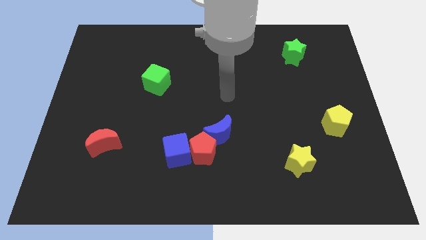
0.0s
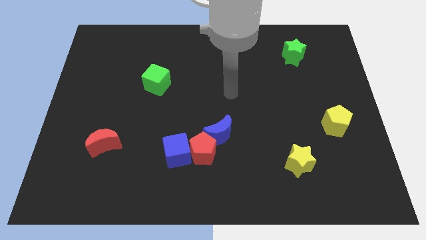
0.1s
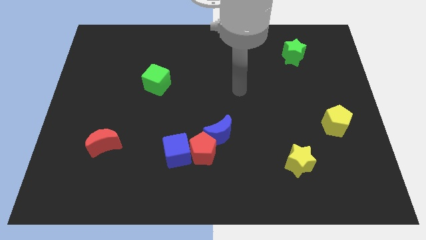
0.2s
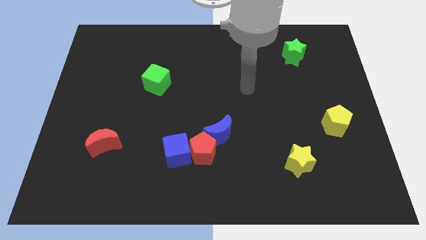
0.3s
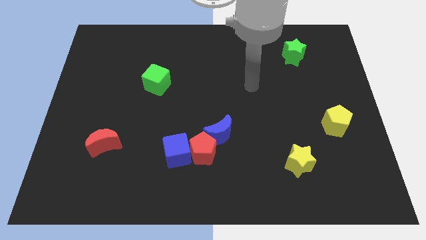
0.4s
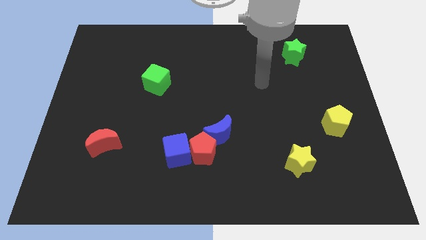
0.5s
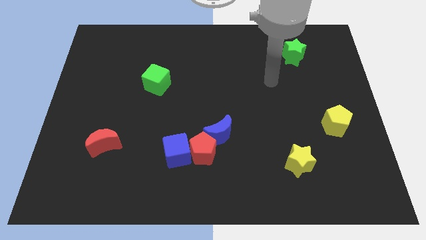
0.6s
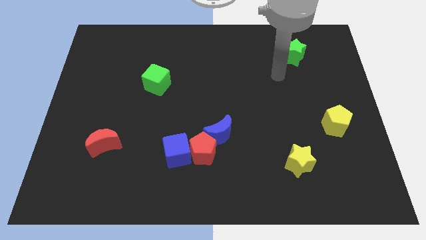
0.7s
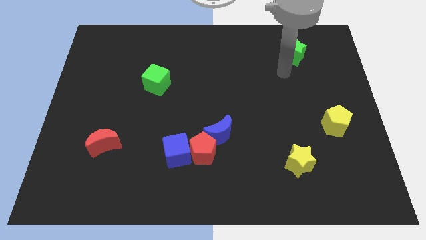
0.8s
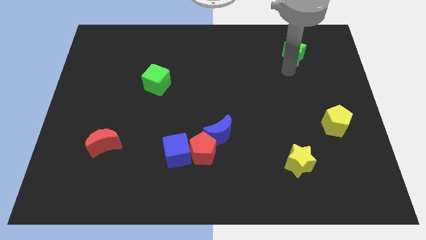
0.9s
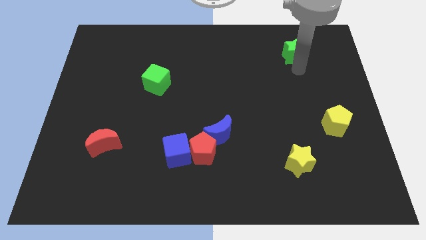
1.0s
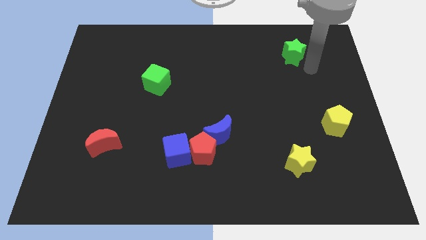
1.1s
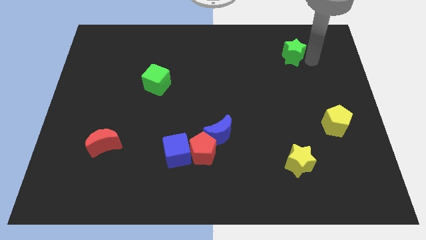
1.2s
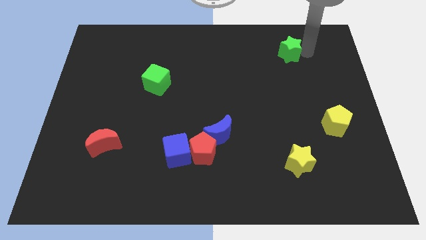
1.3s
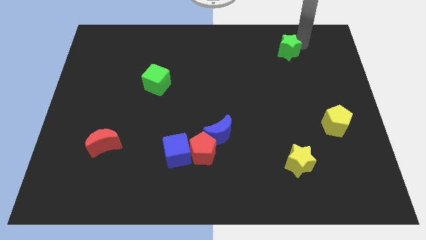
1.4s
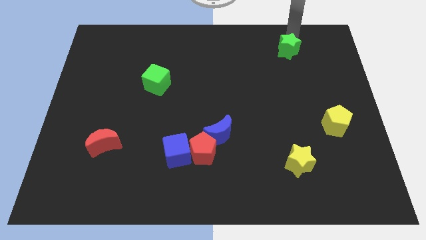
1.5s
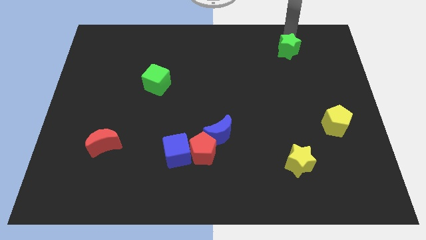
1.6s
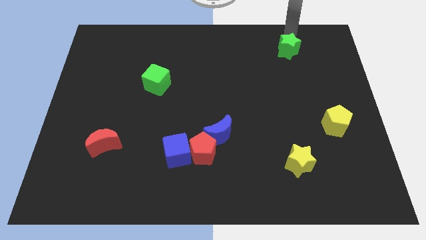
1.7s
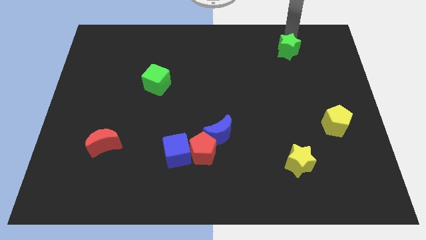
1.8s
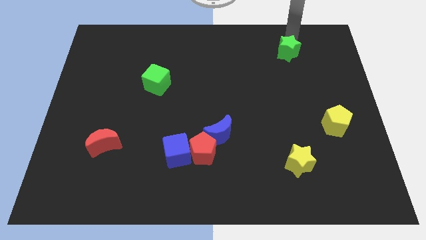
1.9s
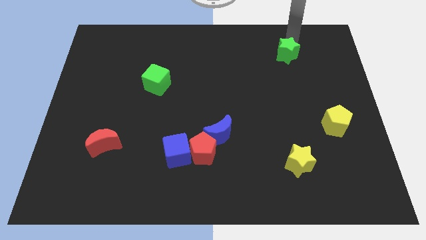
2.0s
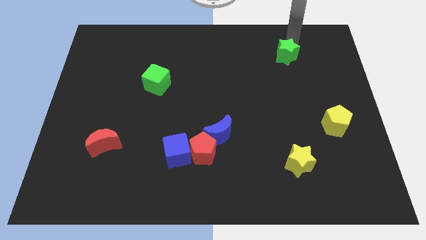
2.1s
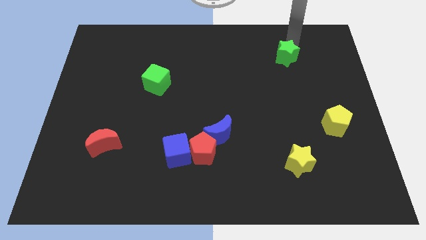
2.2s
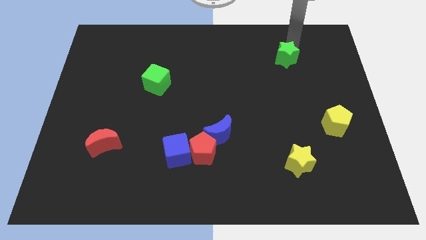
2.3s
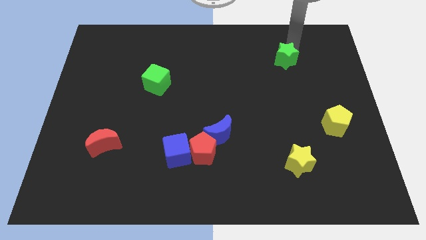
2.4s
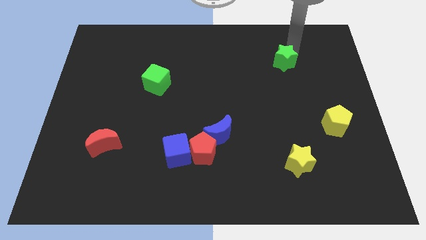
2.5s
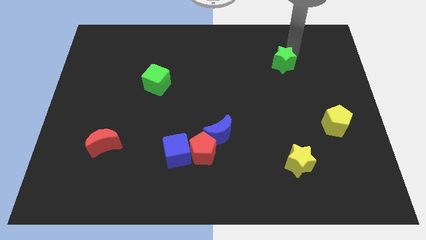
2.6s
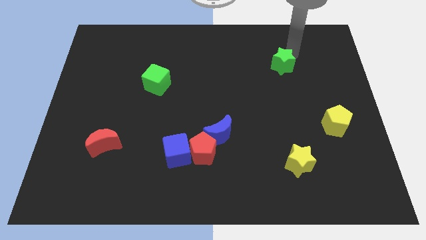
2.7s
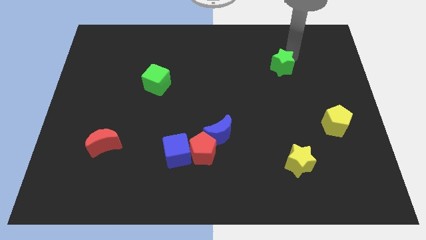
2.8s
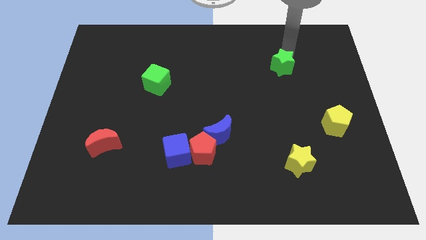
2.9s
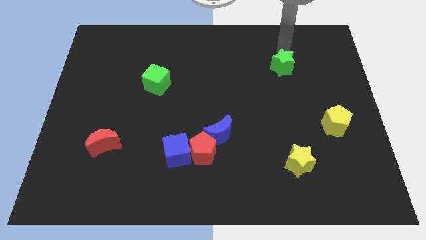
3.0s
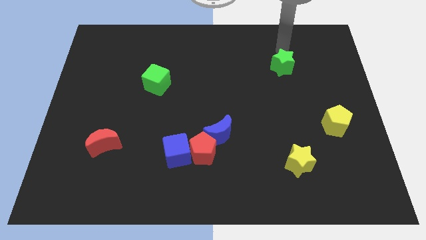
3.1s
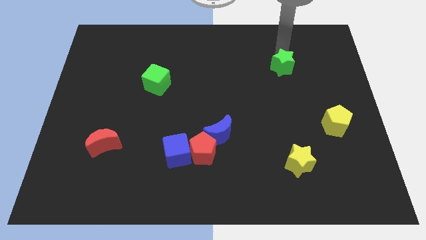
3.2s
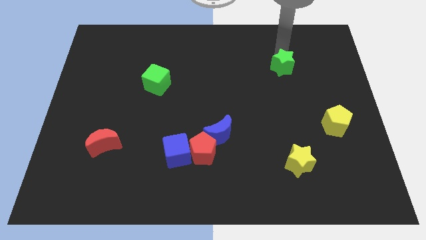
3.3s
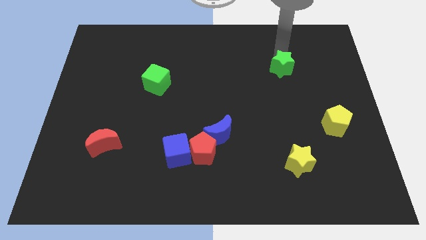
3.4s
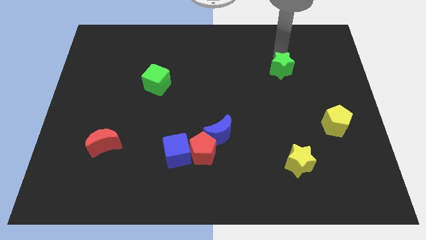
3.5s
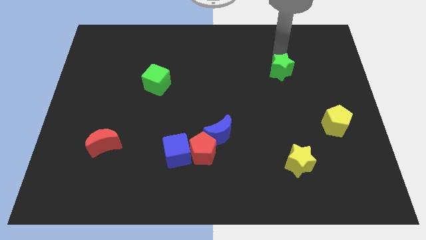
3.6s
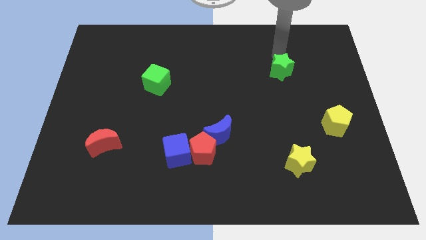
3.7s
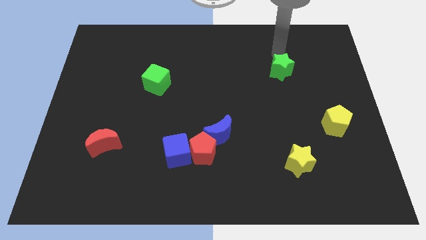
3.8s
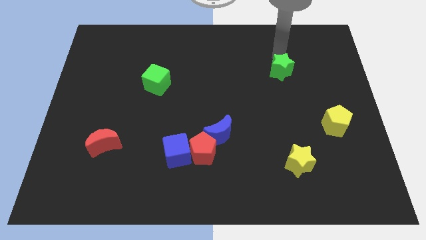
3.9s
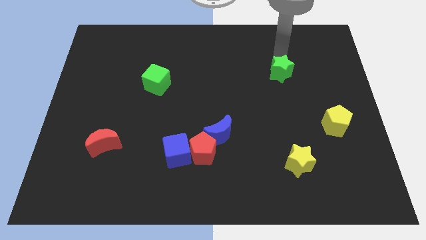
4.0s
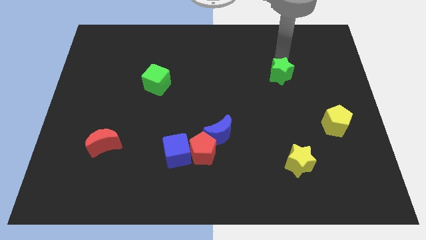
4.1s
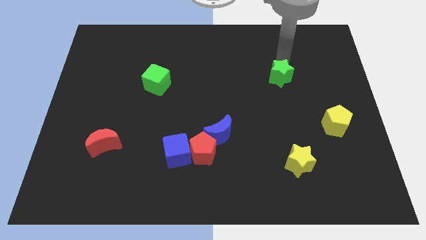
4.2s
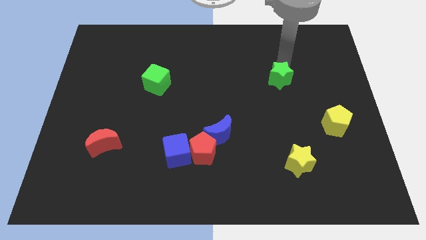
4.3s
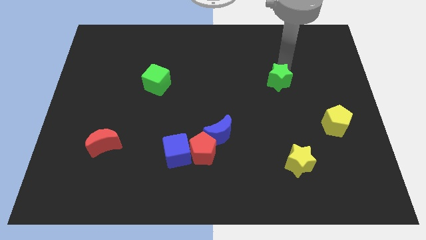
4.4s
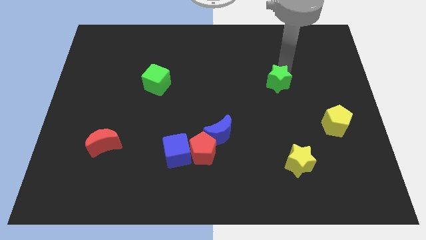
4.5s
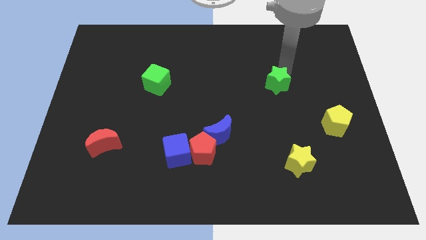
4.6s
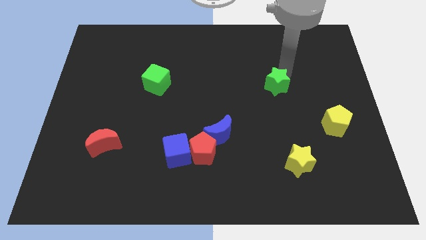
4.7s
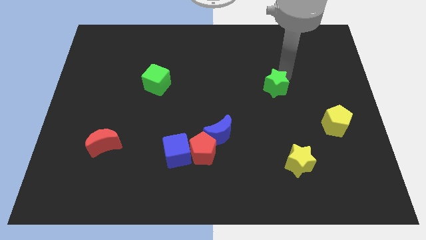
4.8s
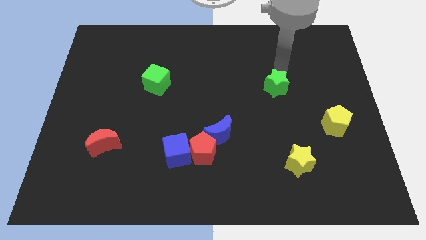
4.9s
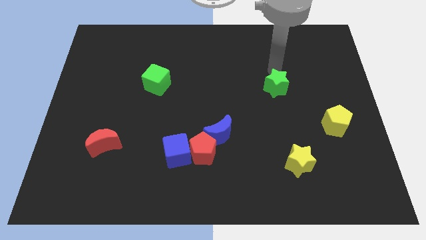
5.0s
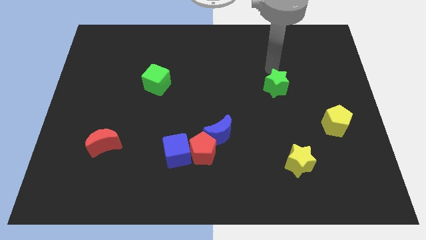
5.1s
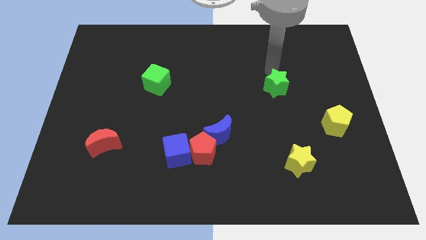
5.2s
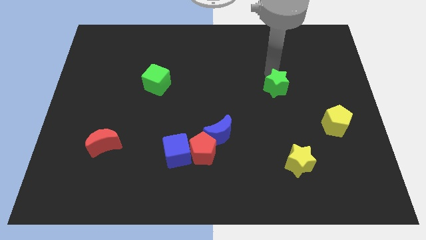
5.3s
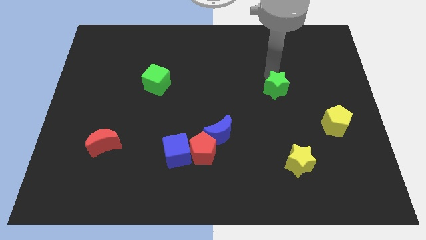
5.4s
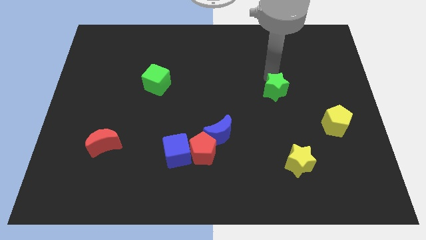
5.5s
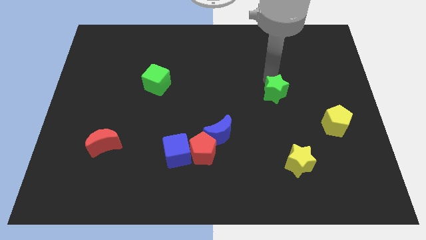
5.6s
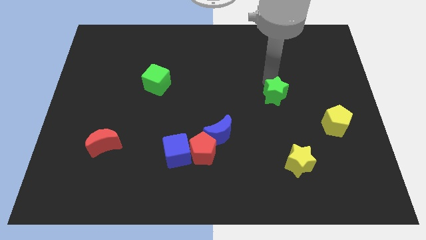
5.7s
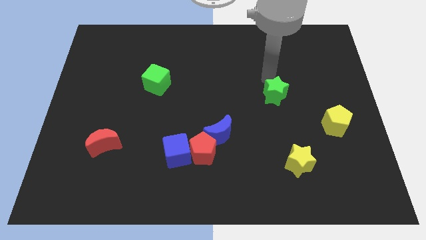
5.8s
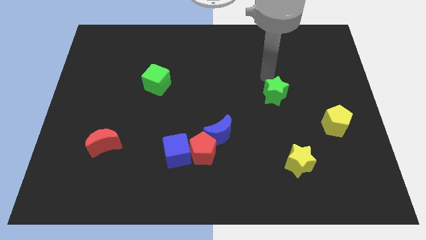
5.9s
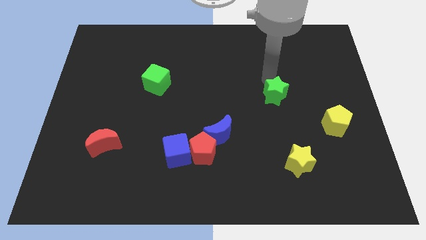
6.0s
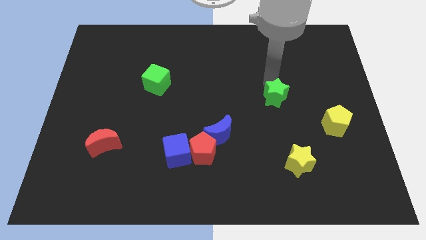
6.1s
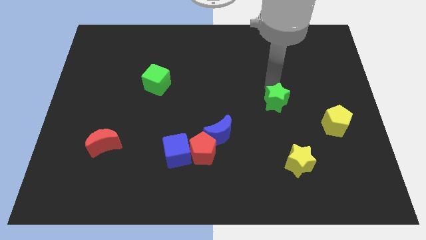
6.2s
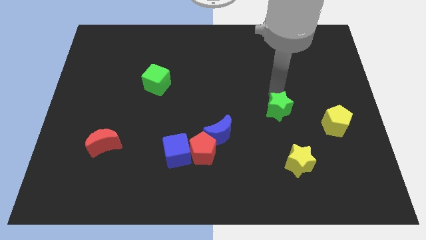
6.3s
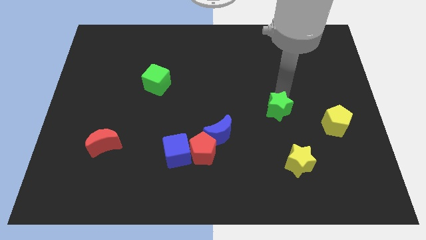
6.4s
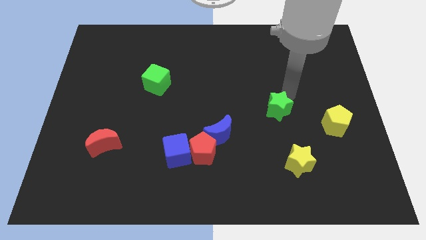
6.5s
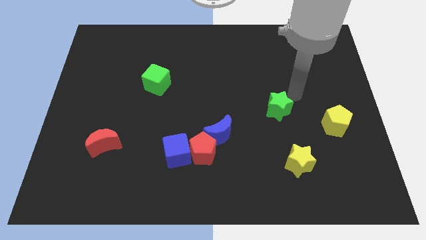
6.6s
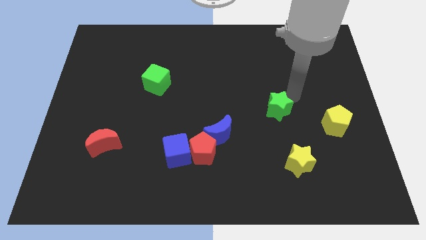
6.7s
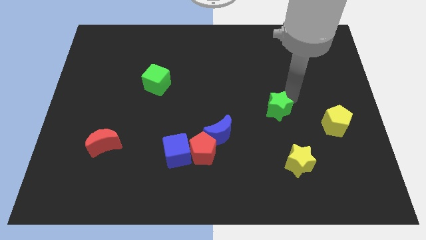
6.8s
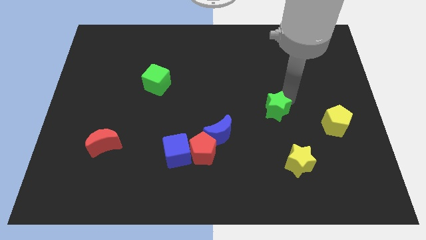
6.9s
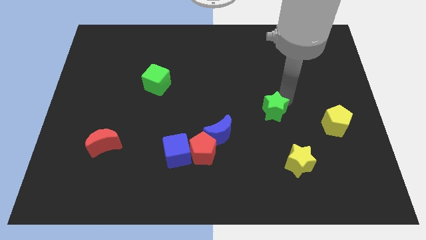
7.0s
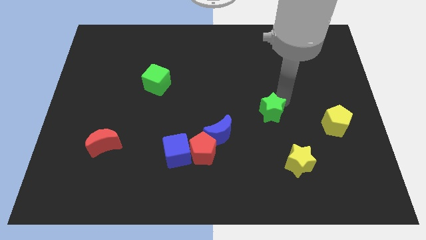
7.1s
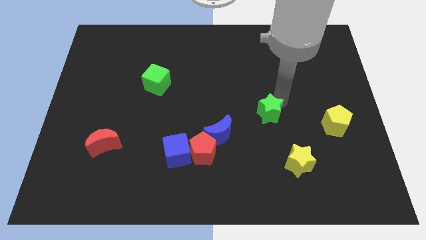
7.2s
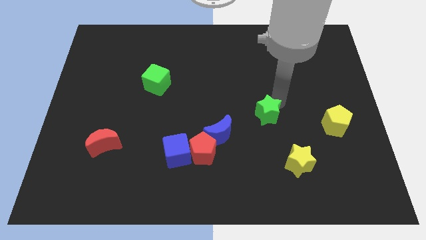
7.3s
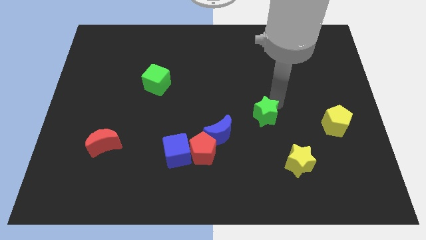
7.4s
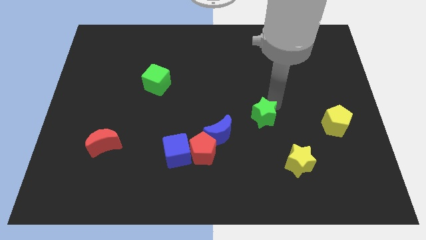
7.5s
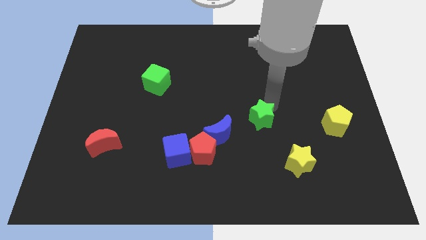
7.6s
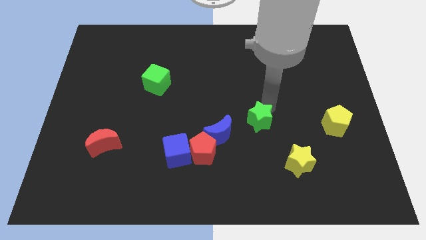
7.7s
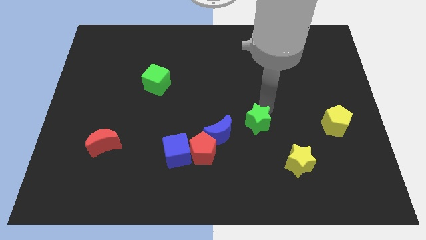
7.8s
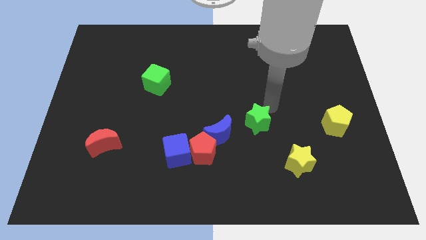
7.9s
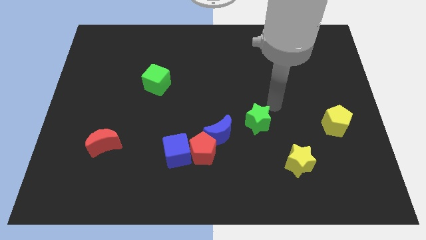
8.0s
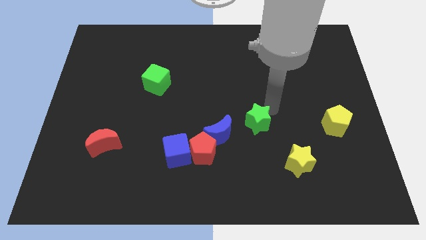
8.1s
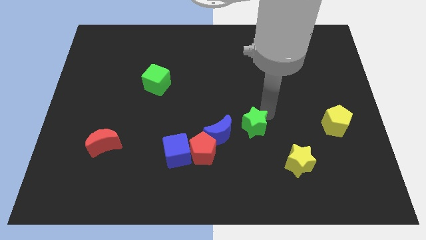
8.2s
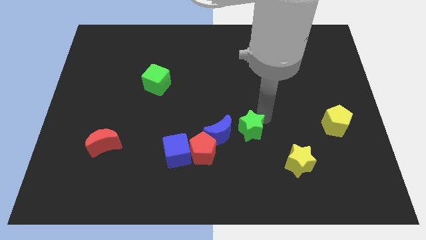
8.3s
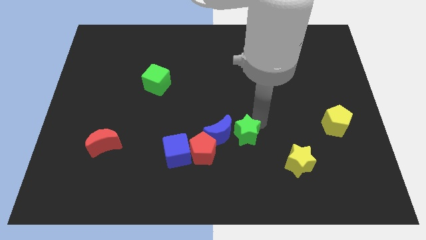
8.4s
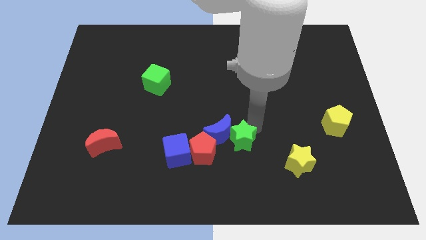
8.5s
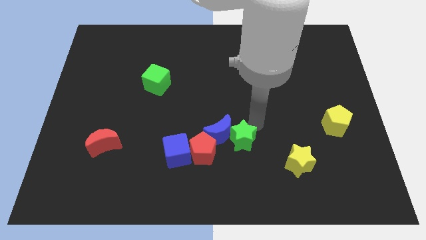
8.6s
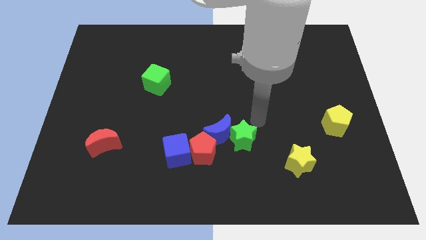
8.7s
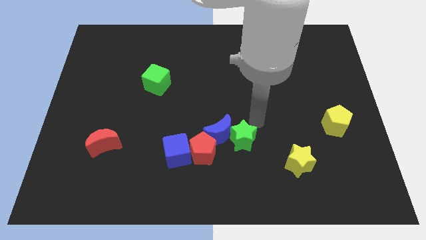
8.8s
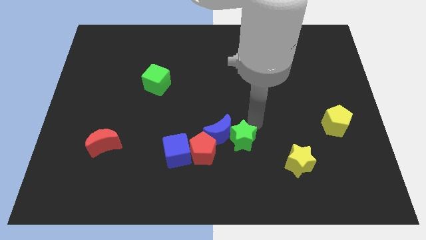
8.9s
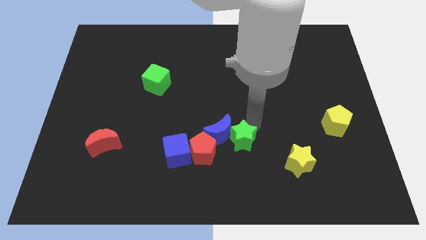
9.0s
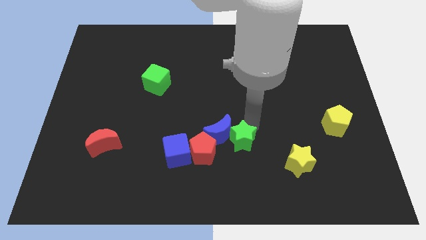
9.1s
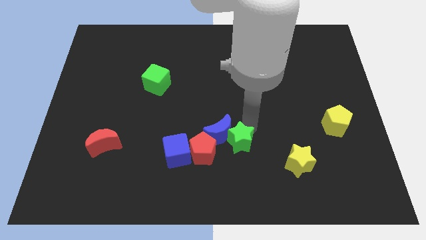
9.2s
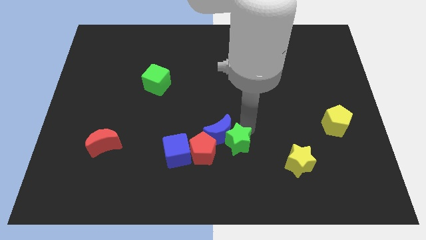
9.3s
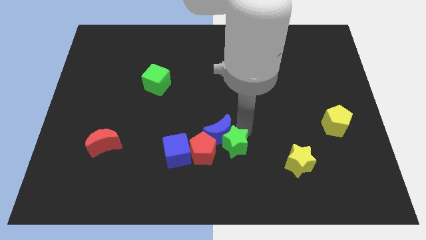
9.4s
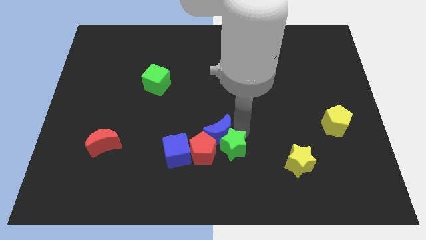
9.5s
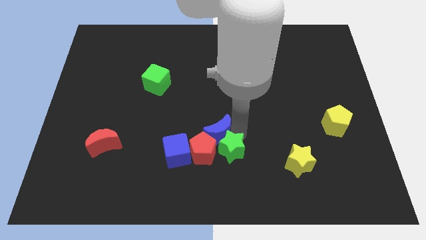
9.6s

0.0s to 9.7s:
move the green star diagonally down and to the right of the red pentagon
